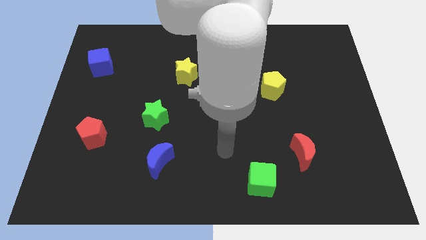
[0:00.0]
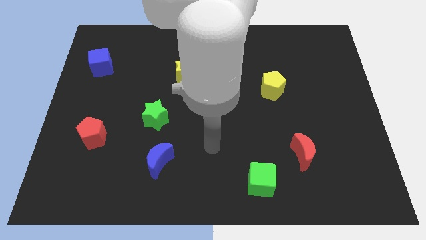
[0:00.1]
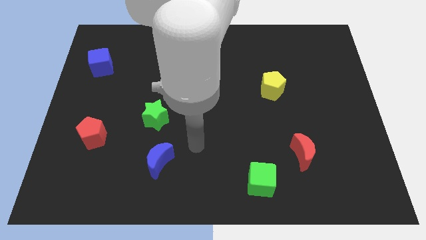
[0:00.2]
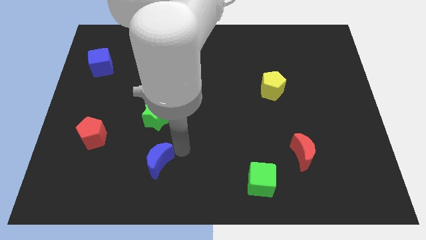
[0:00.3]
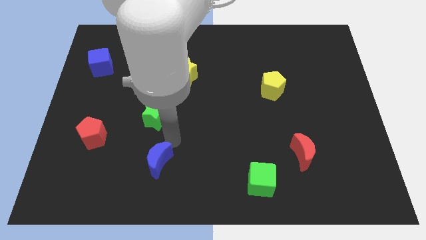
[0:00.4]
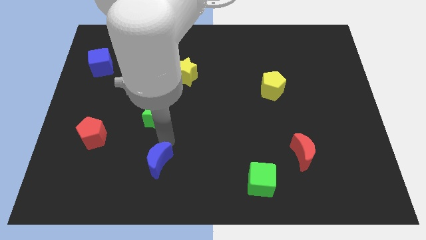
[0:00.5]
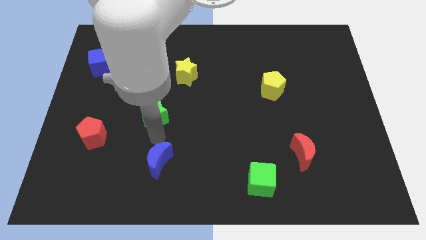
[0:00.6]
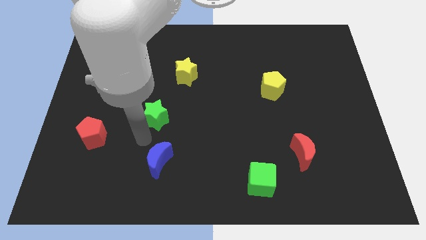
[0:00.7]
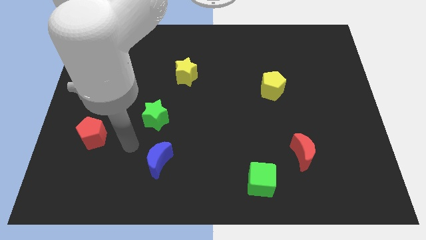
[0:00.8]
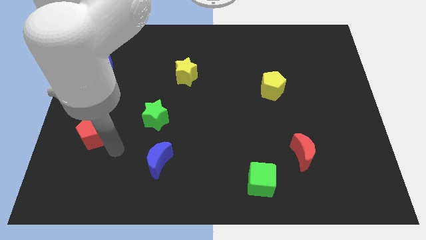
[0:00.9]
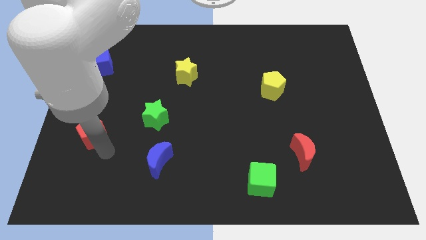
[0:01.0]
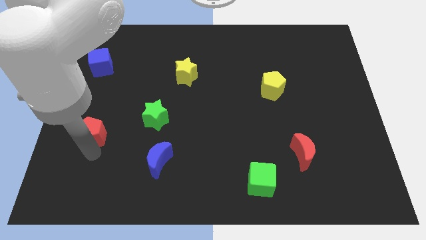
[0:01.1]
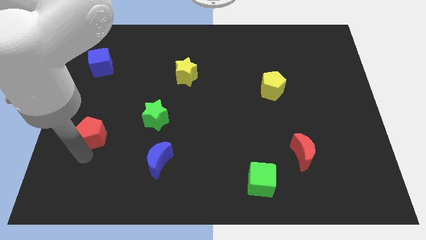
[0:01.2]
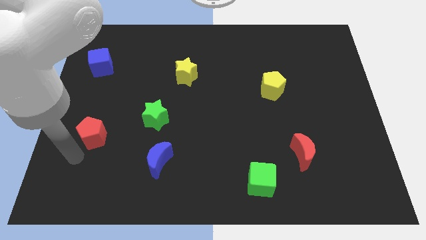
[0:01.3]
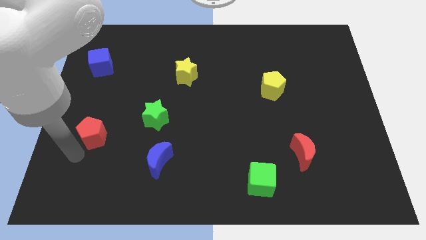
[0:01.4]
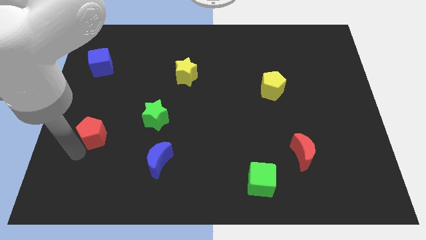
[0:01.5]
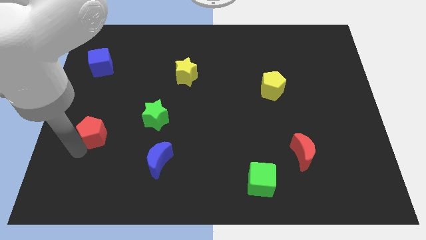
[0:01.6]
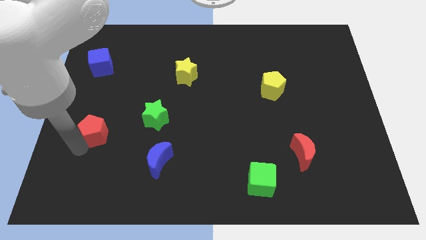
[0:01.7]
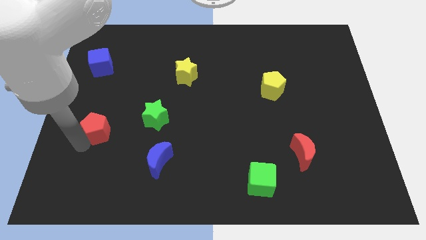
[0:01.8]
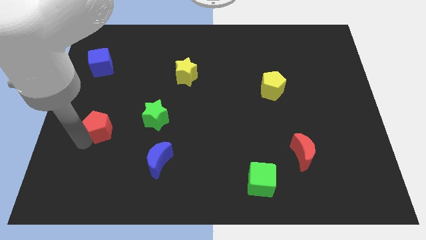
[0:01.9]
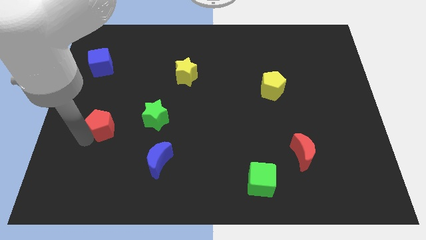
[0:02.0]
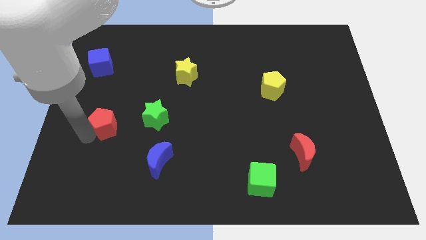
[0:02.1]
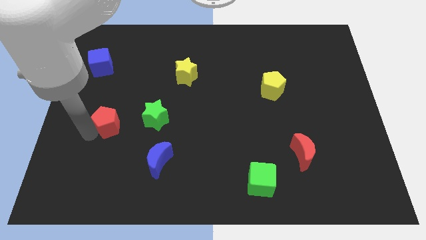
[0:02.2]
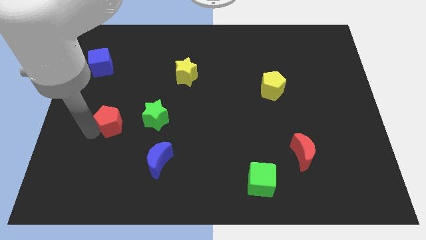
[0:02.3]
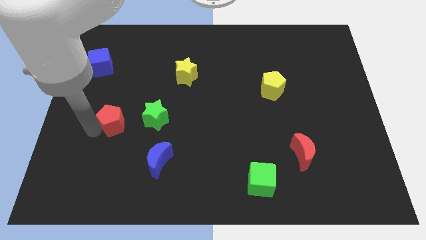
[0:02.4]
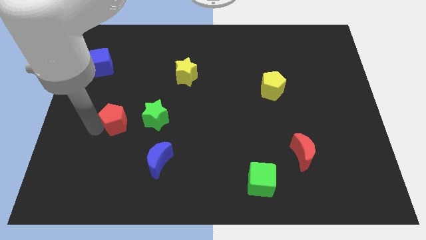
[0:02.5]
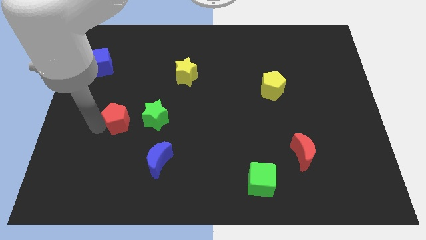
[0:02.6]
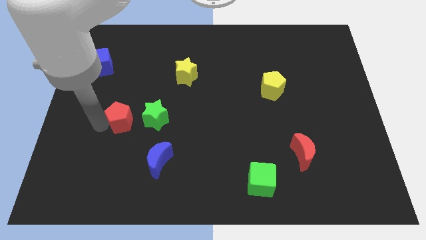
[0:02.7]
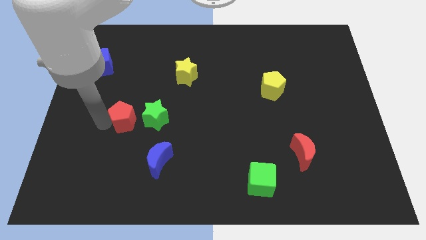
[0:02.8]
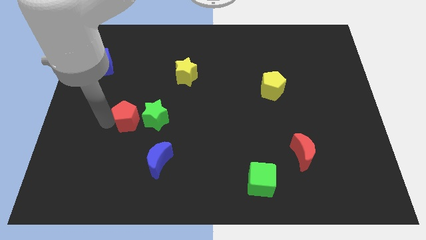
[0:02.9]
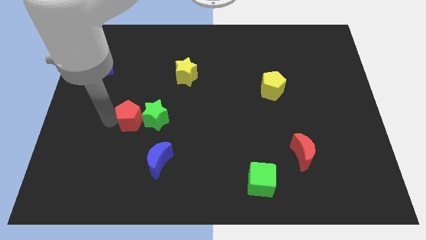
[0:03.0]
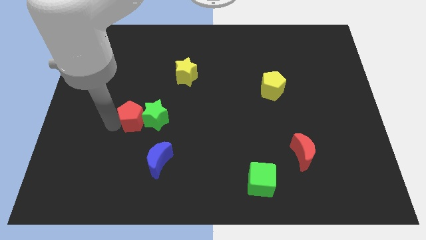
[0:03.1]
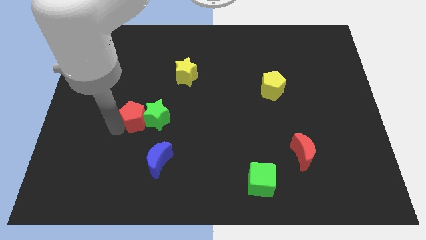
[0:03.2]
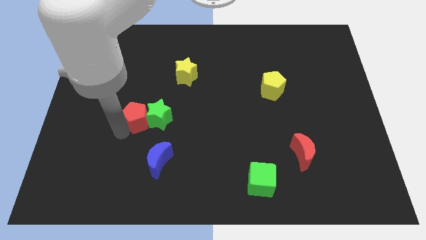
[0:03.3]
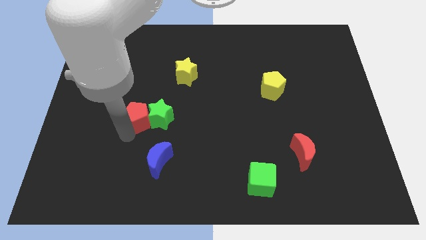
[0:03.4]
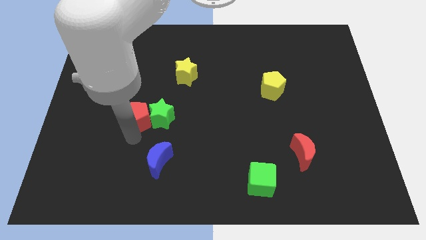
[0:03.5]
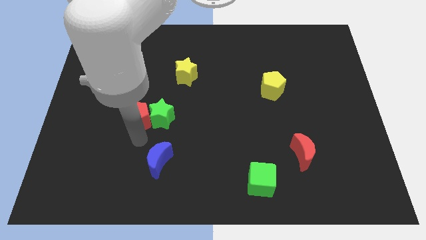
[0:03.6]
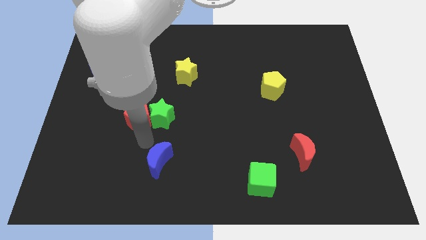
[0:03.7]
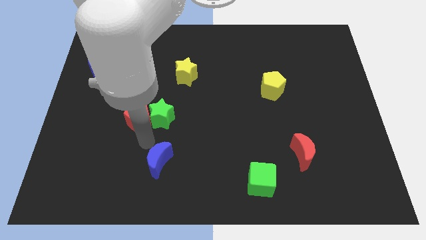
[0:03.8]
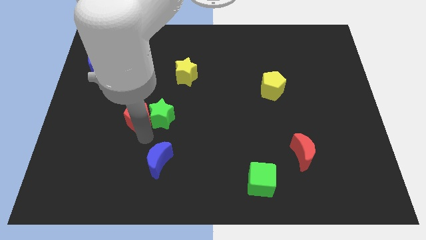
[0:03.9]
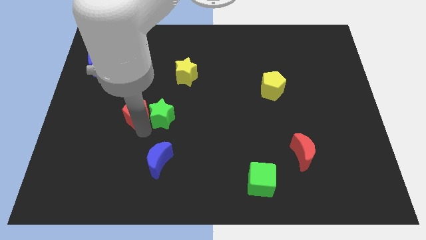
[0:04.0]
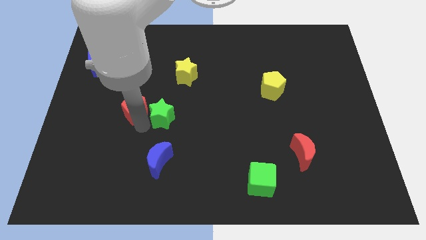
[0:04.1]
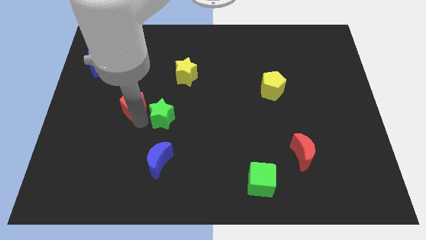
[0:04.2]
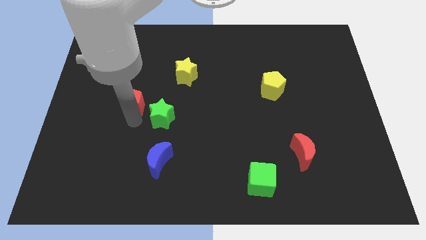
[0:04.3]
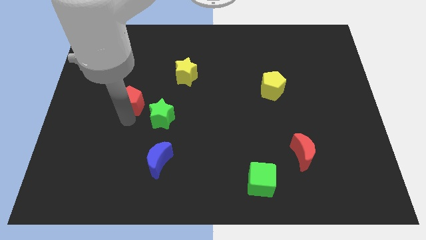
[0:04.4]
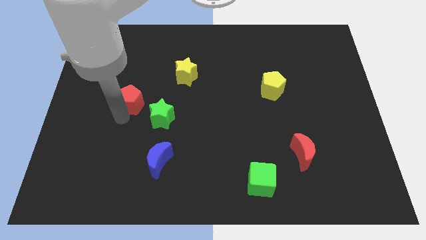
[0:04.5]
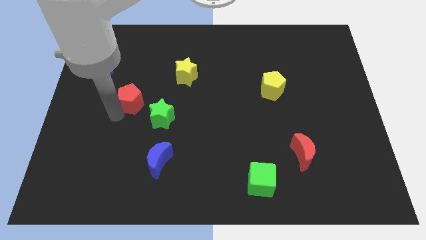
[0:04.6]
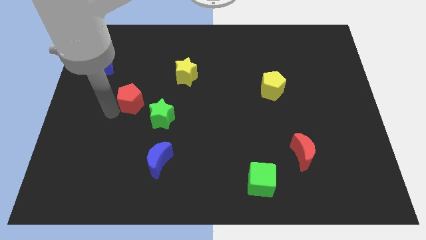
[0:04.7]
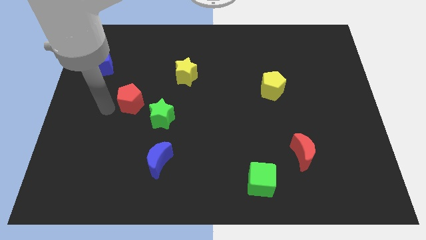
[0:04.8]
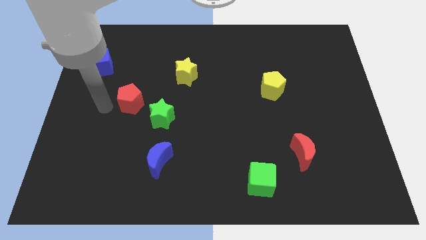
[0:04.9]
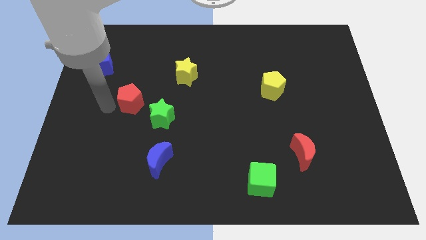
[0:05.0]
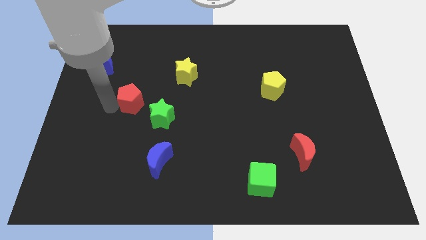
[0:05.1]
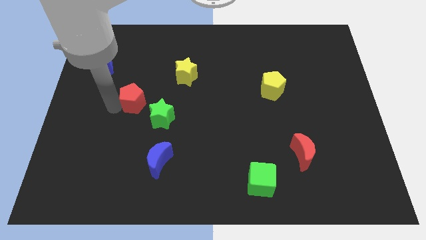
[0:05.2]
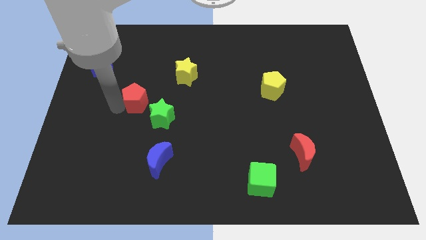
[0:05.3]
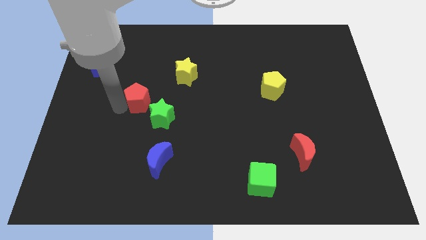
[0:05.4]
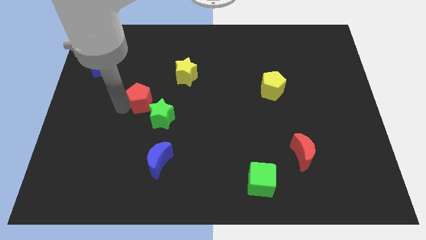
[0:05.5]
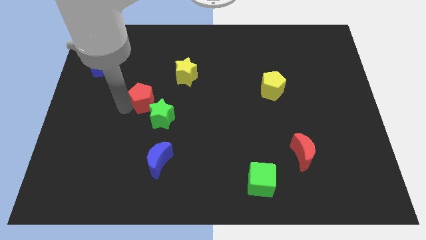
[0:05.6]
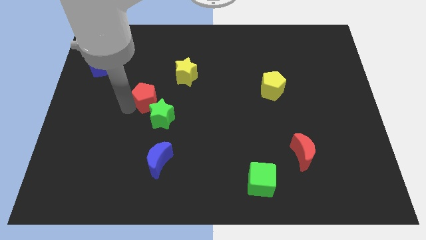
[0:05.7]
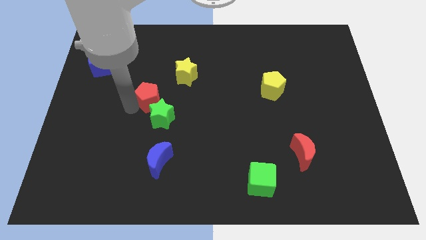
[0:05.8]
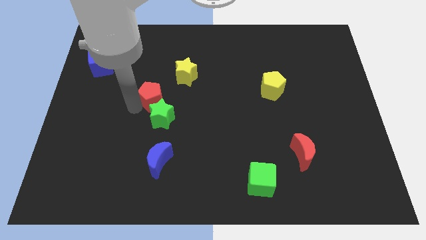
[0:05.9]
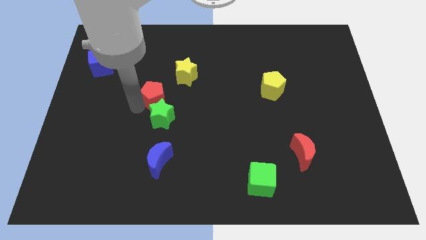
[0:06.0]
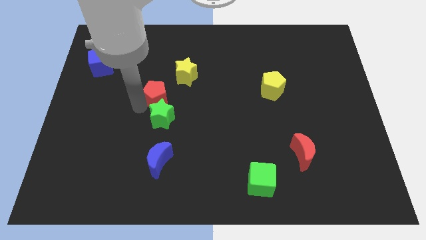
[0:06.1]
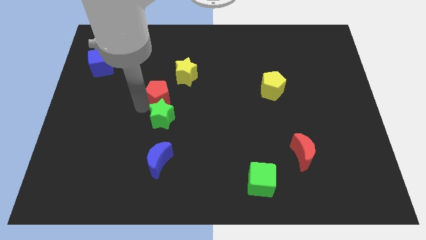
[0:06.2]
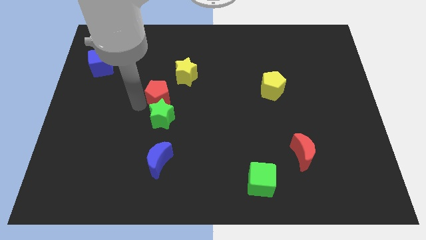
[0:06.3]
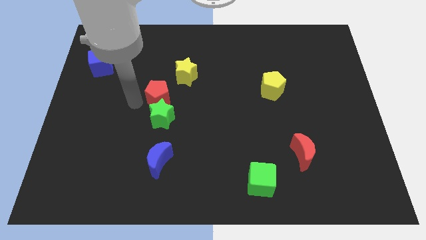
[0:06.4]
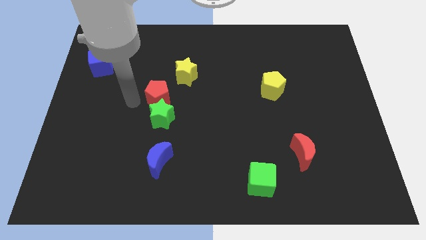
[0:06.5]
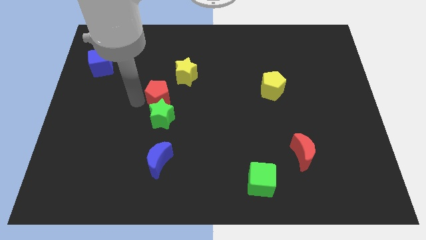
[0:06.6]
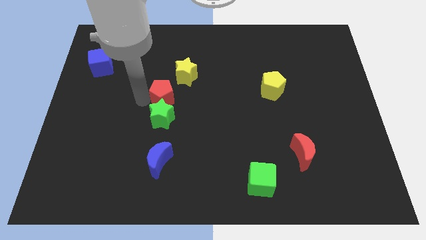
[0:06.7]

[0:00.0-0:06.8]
slide the red pentagon to the middle

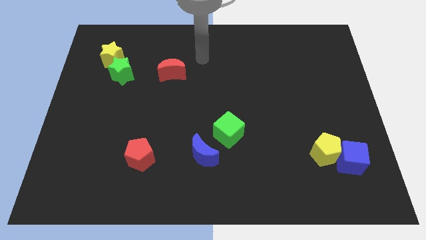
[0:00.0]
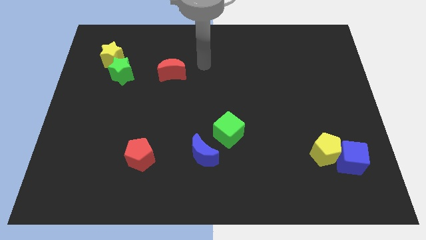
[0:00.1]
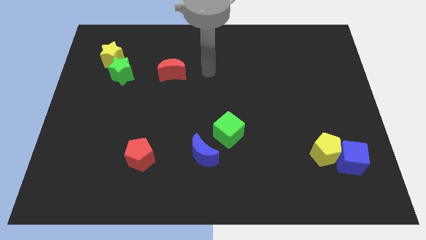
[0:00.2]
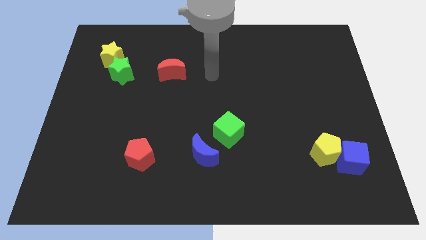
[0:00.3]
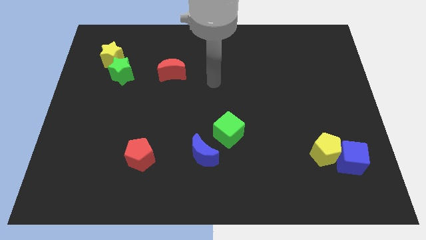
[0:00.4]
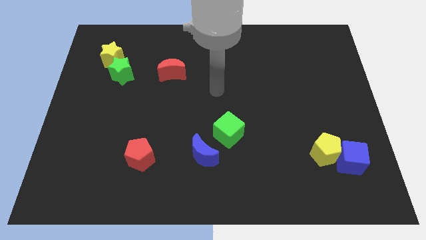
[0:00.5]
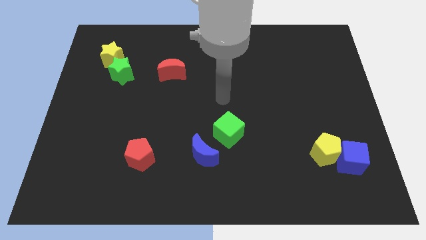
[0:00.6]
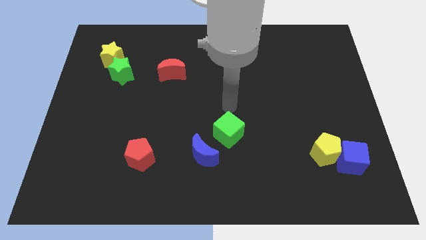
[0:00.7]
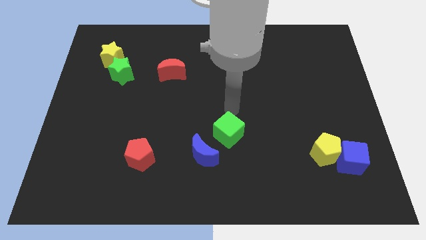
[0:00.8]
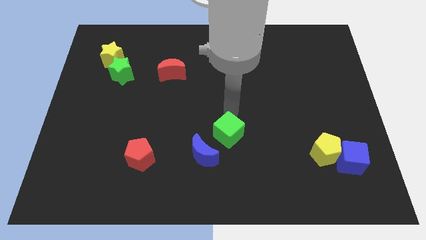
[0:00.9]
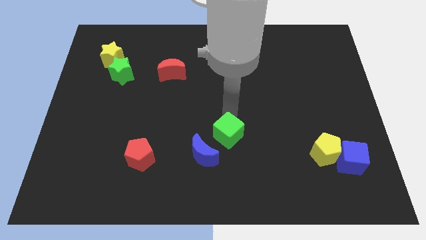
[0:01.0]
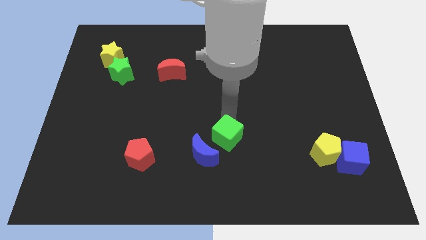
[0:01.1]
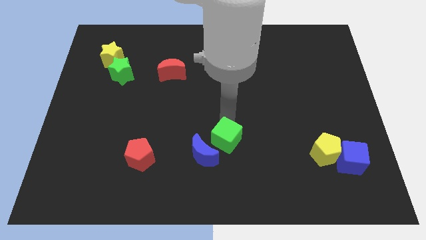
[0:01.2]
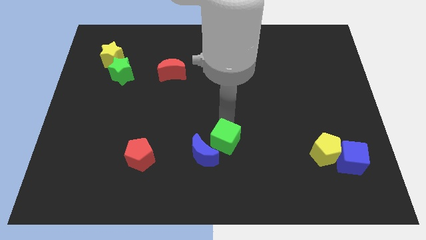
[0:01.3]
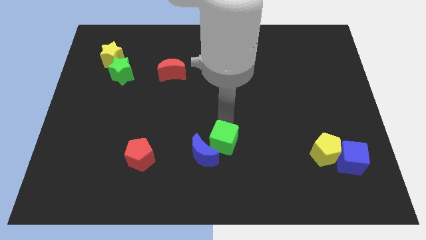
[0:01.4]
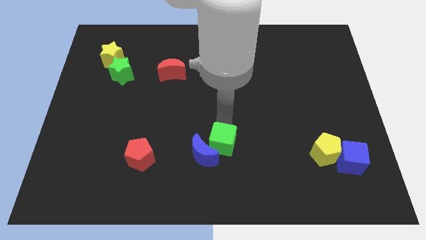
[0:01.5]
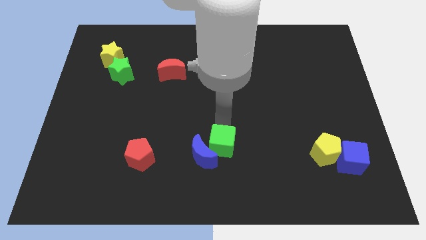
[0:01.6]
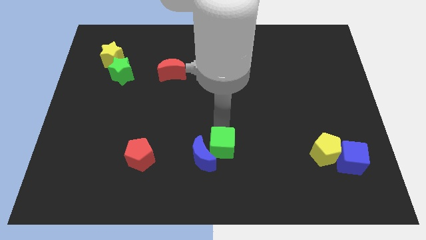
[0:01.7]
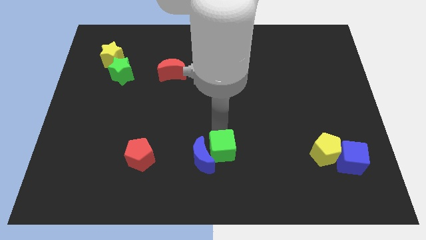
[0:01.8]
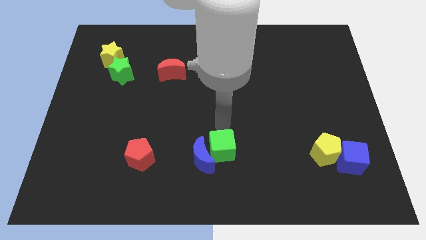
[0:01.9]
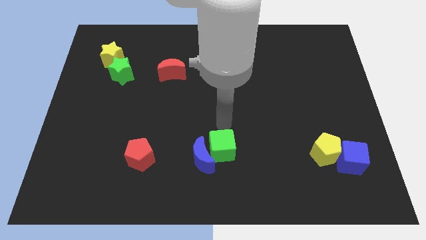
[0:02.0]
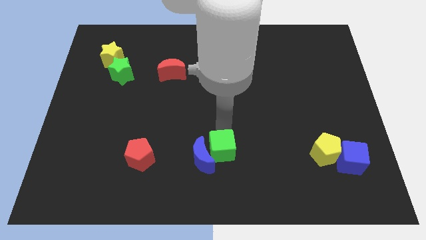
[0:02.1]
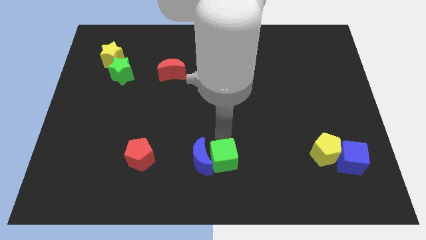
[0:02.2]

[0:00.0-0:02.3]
move the green cube to the bottom
